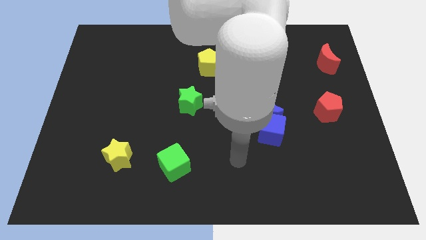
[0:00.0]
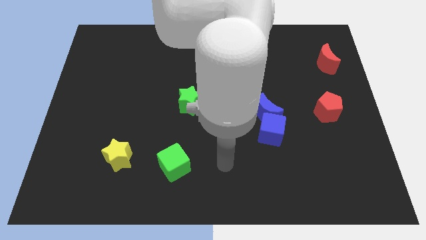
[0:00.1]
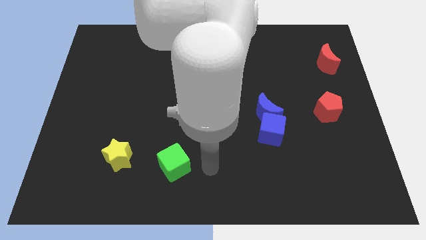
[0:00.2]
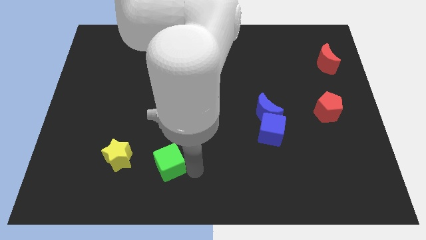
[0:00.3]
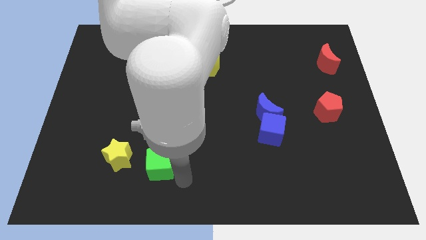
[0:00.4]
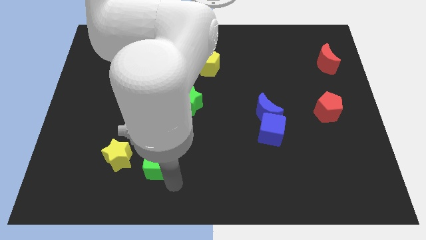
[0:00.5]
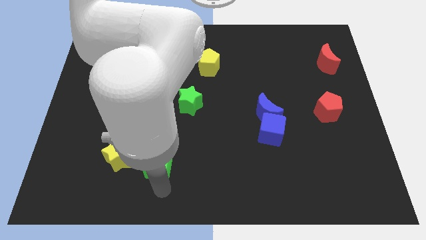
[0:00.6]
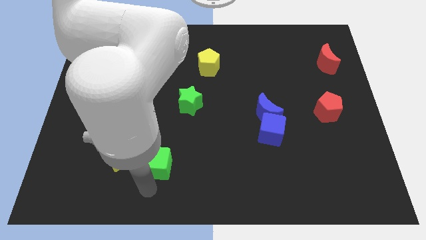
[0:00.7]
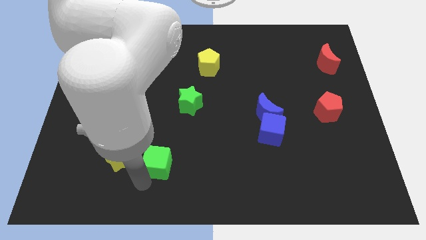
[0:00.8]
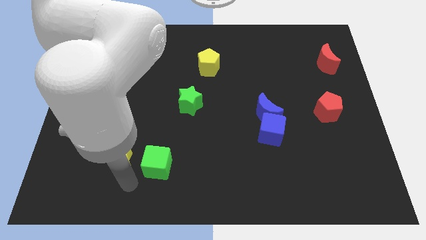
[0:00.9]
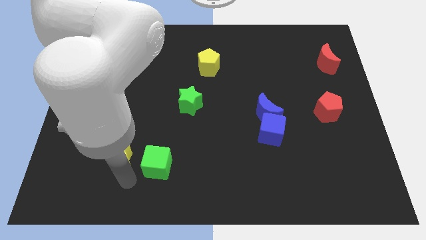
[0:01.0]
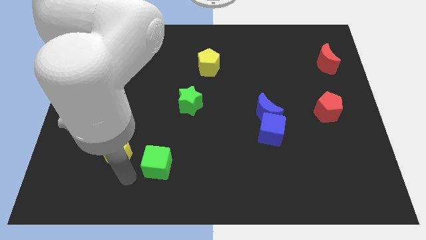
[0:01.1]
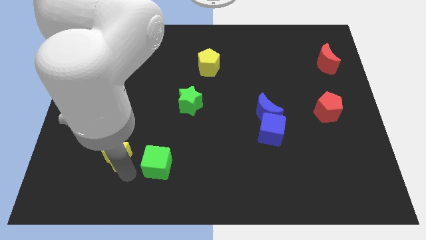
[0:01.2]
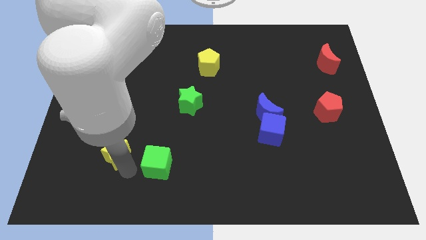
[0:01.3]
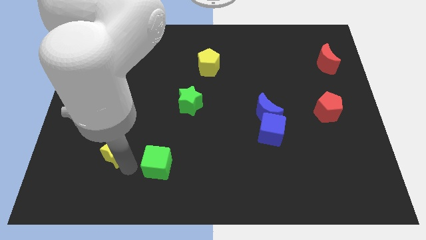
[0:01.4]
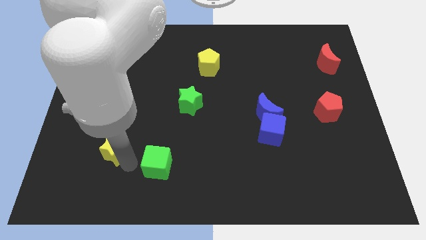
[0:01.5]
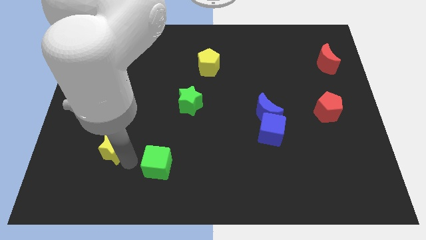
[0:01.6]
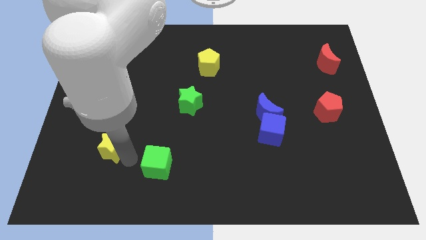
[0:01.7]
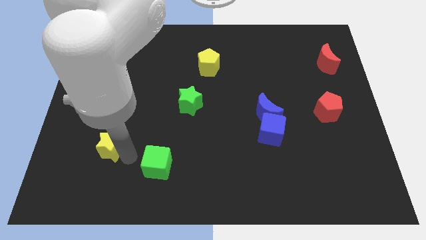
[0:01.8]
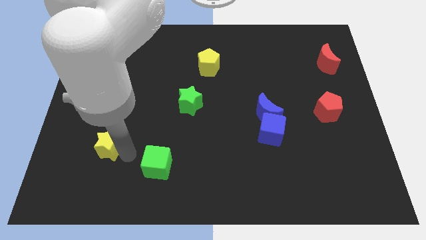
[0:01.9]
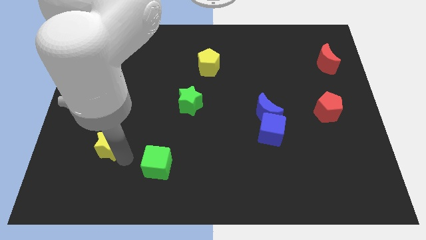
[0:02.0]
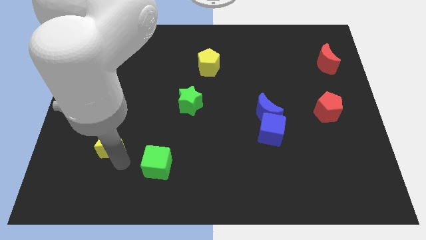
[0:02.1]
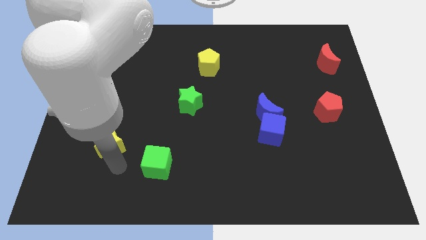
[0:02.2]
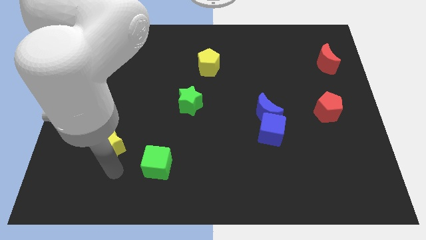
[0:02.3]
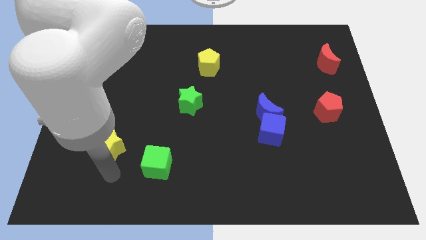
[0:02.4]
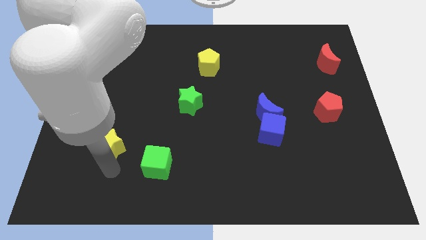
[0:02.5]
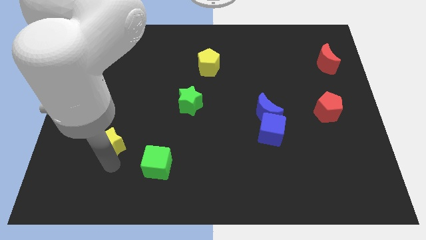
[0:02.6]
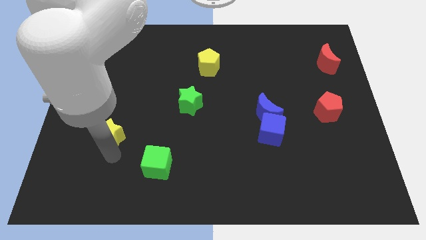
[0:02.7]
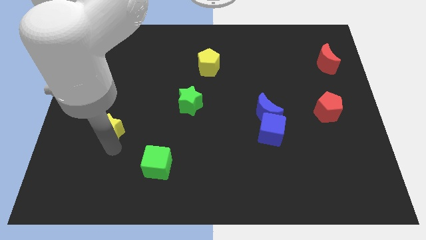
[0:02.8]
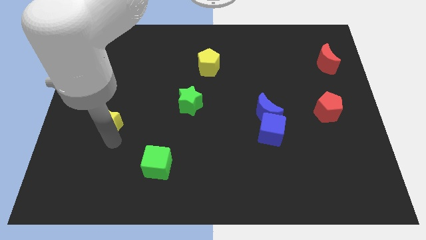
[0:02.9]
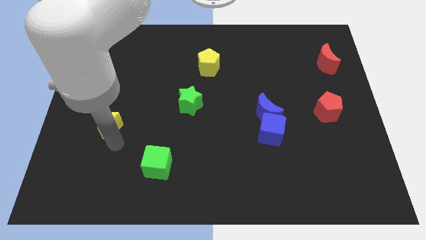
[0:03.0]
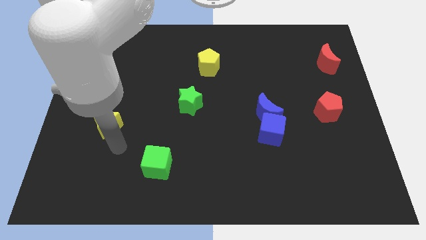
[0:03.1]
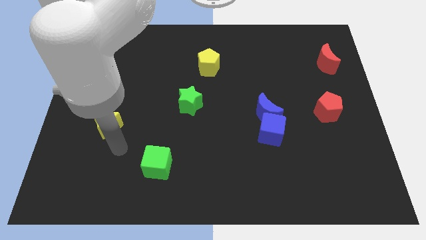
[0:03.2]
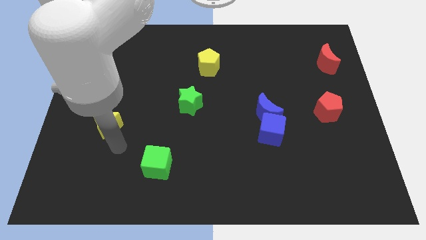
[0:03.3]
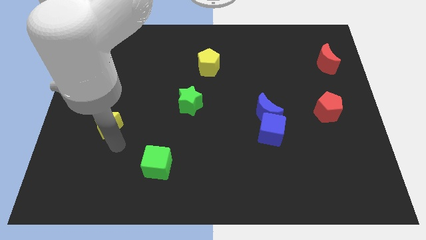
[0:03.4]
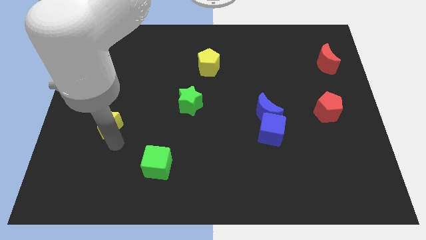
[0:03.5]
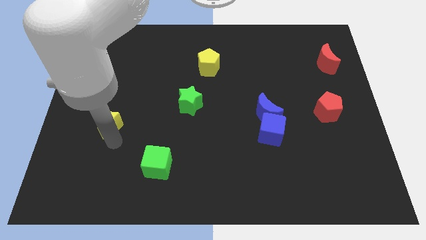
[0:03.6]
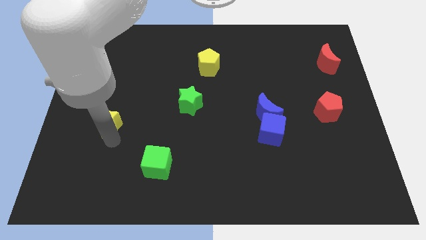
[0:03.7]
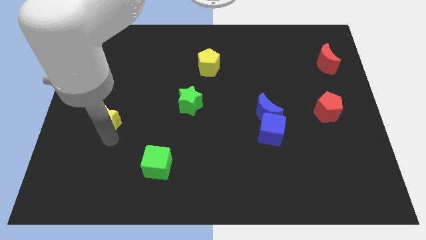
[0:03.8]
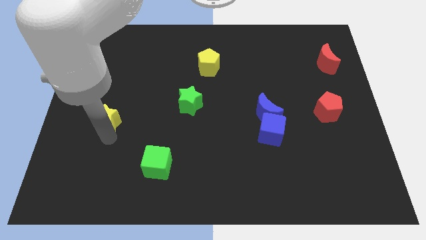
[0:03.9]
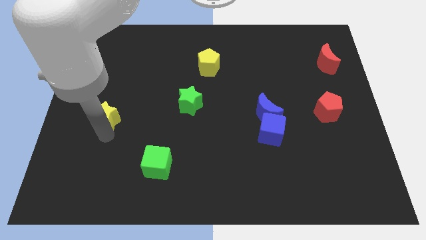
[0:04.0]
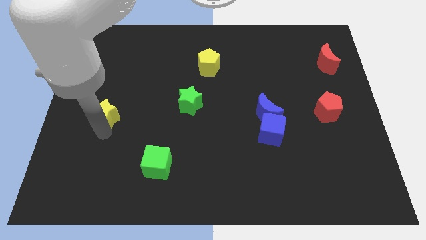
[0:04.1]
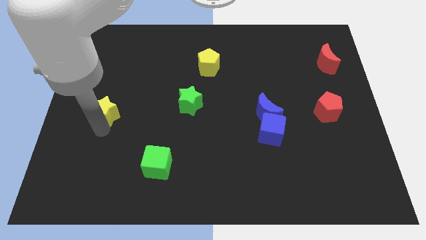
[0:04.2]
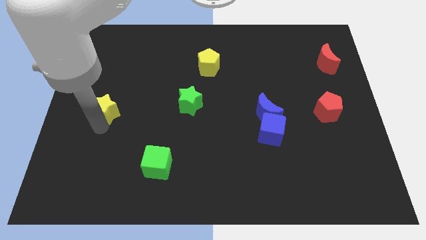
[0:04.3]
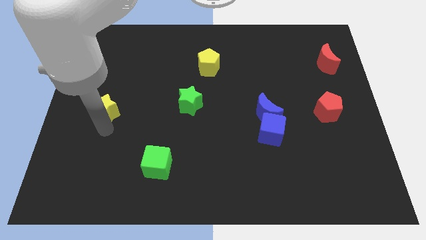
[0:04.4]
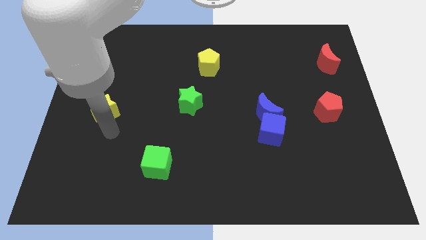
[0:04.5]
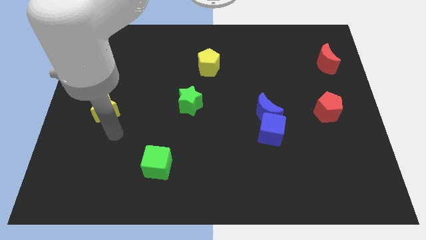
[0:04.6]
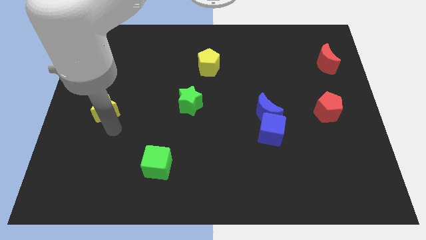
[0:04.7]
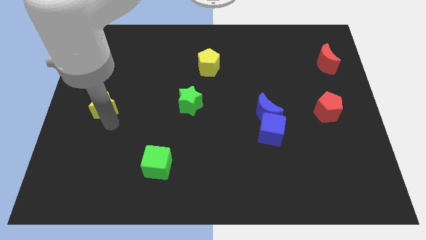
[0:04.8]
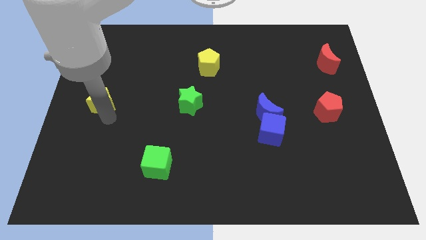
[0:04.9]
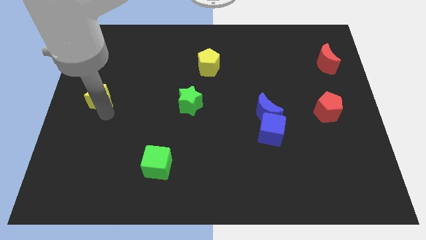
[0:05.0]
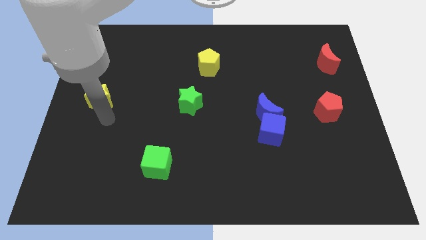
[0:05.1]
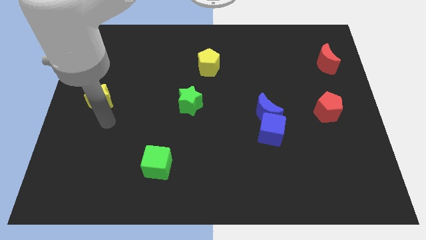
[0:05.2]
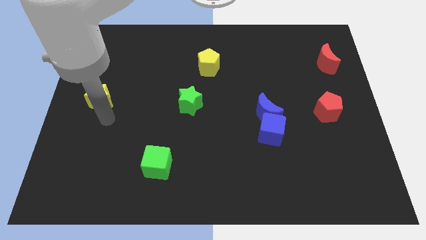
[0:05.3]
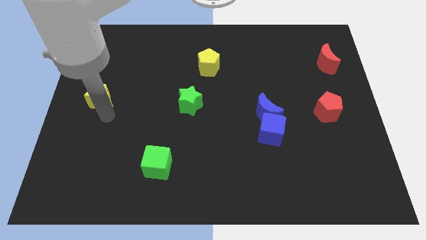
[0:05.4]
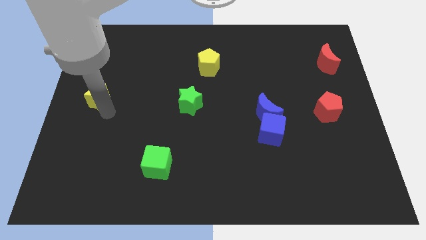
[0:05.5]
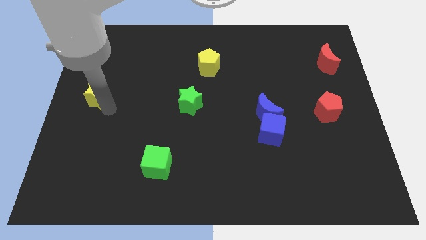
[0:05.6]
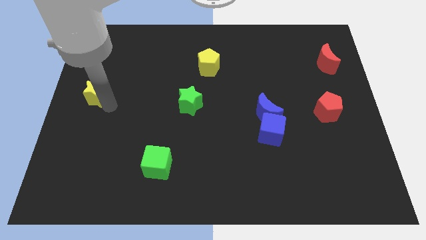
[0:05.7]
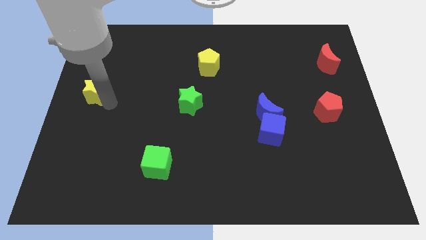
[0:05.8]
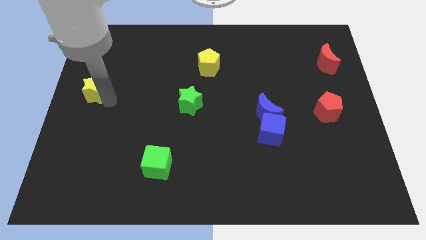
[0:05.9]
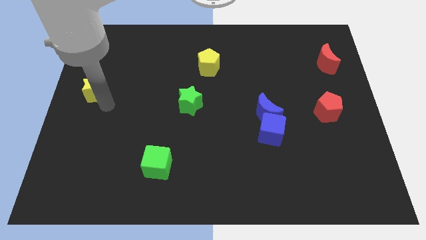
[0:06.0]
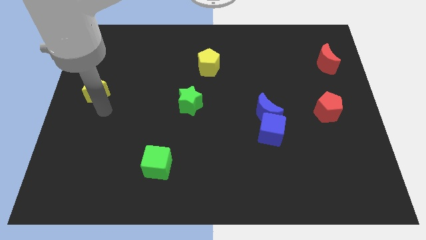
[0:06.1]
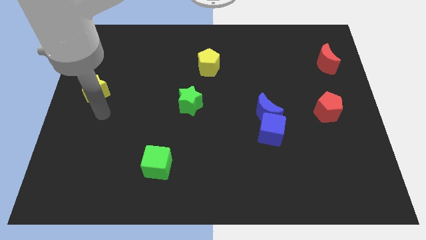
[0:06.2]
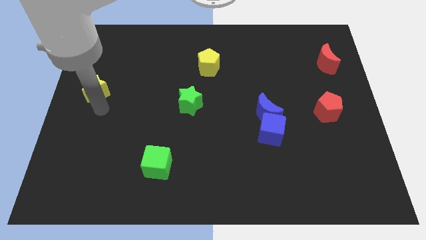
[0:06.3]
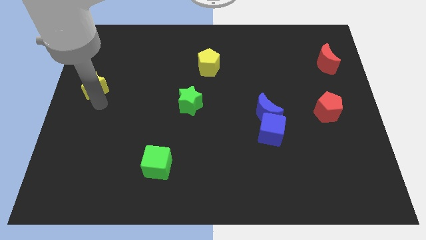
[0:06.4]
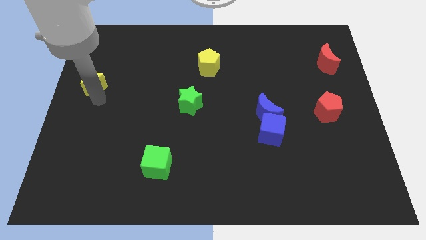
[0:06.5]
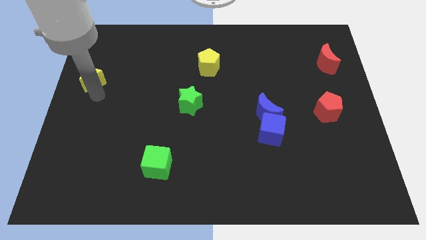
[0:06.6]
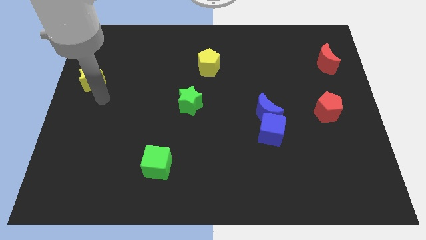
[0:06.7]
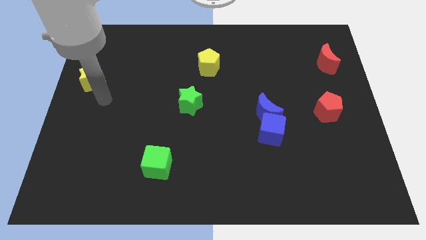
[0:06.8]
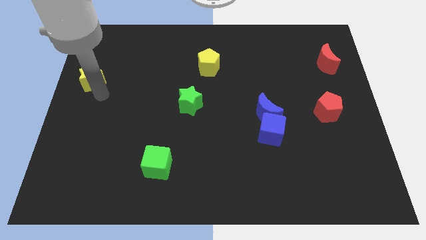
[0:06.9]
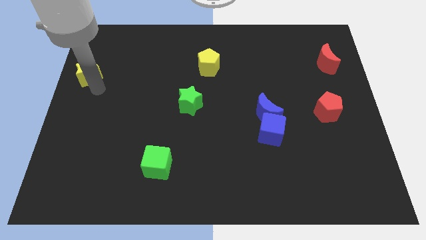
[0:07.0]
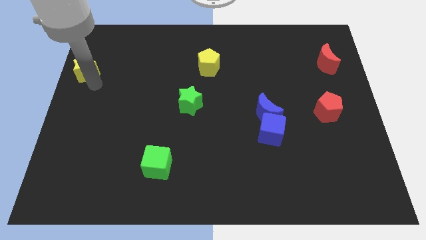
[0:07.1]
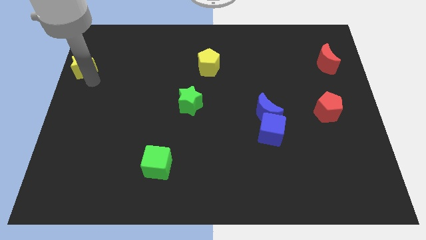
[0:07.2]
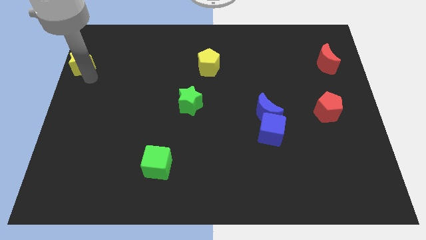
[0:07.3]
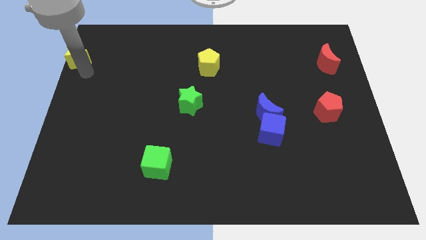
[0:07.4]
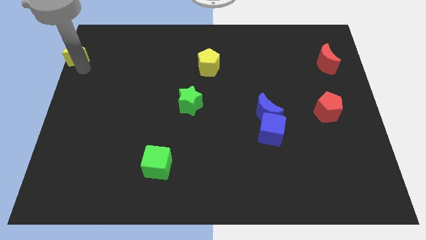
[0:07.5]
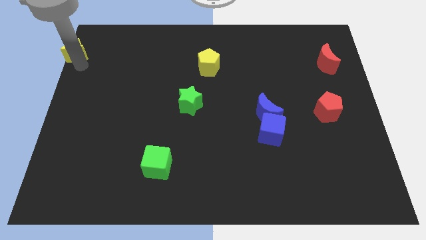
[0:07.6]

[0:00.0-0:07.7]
push the yellow star to the top left of the board
